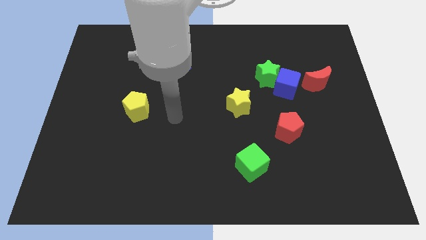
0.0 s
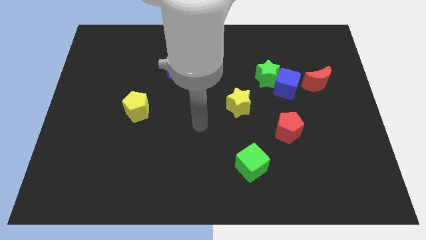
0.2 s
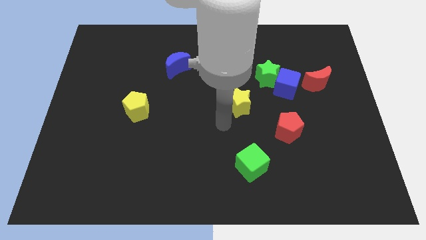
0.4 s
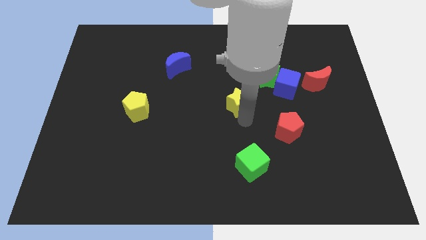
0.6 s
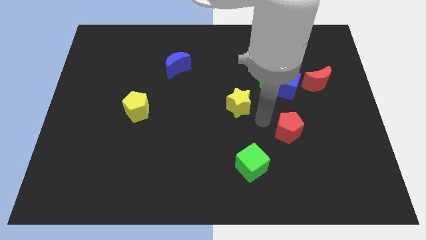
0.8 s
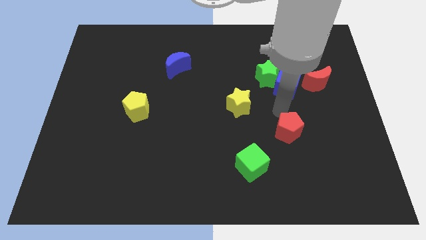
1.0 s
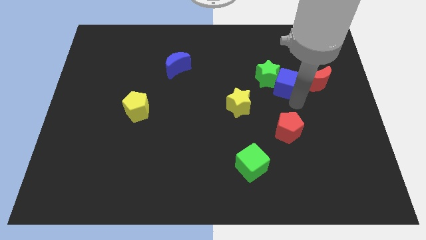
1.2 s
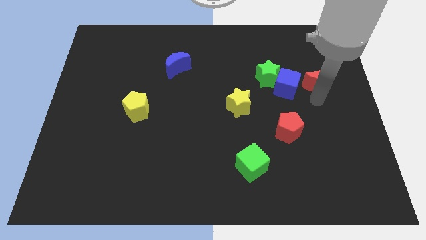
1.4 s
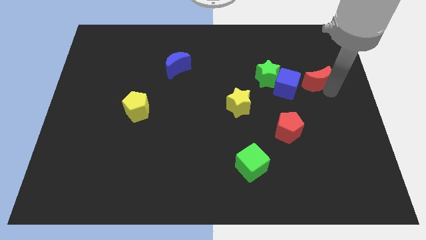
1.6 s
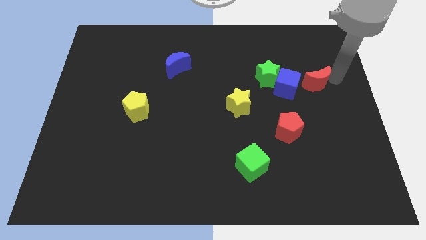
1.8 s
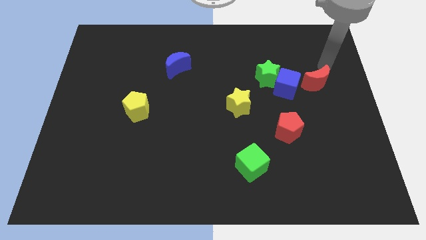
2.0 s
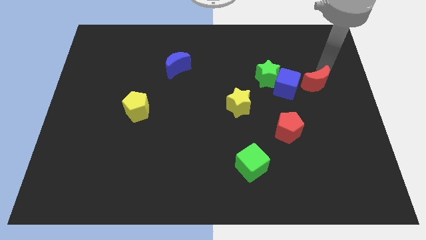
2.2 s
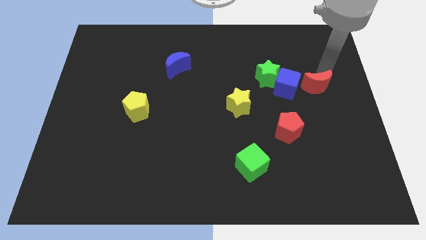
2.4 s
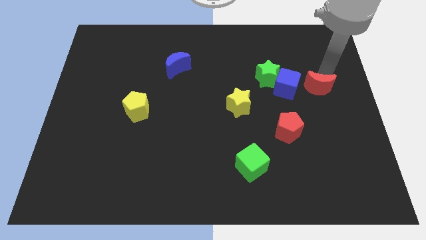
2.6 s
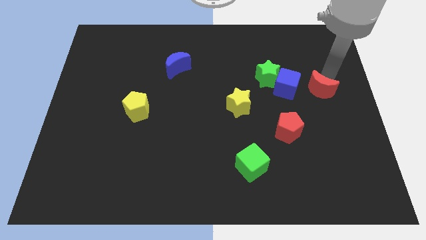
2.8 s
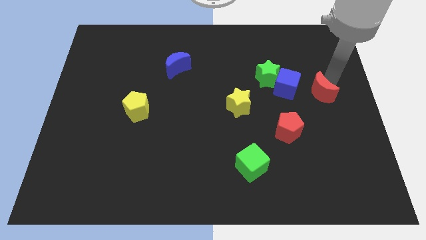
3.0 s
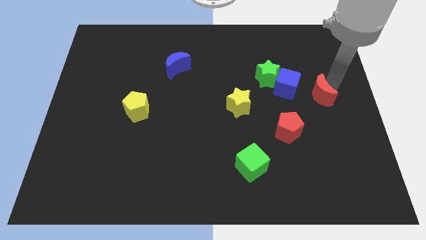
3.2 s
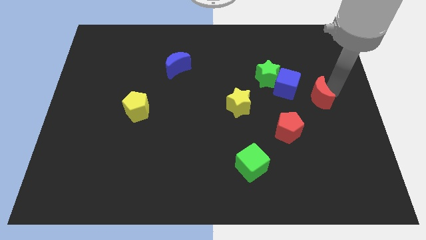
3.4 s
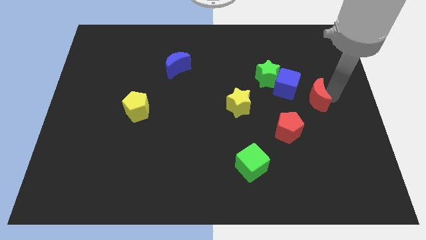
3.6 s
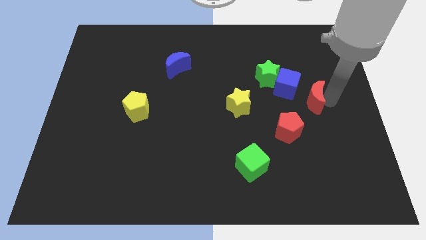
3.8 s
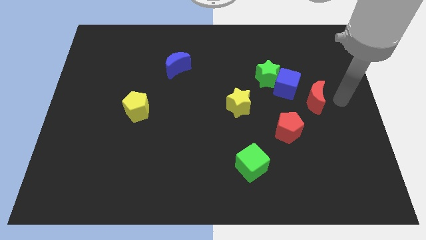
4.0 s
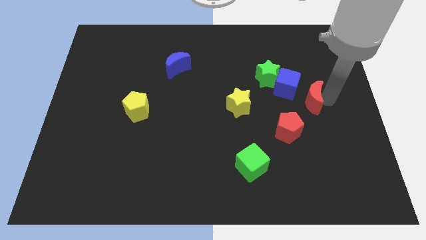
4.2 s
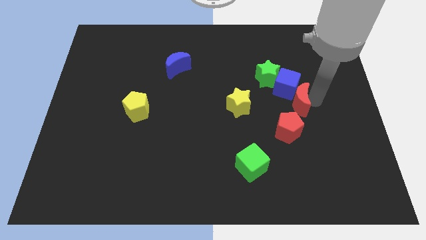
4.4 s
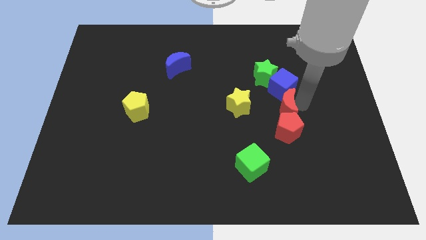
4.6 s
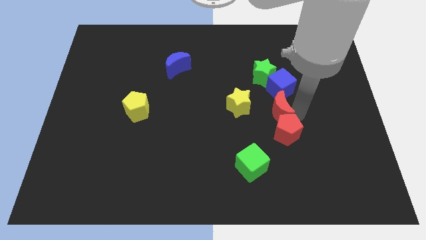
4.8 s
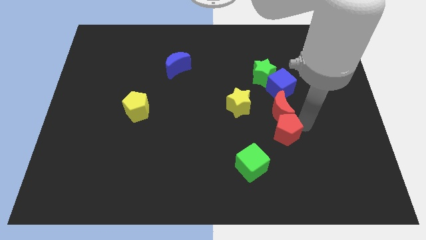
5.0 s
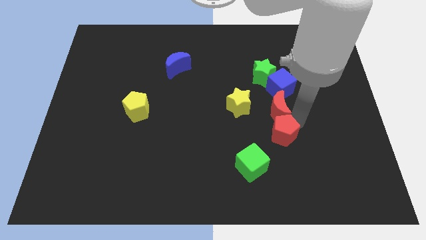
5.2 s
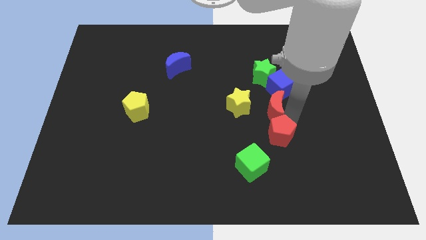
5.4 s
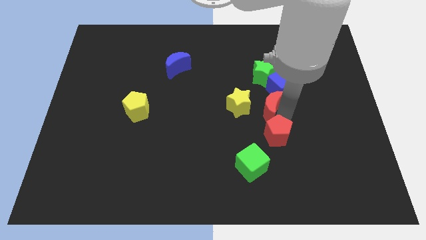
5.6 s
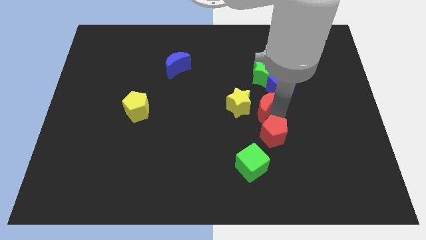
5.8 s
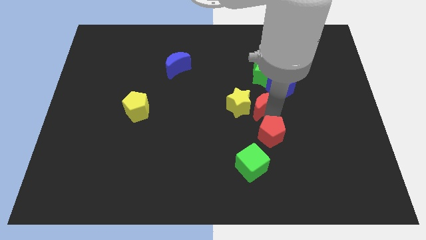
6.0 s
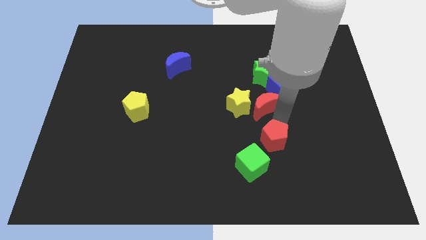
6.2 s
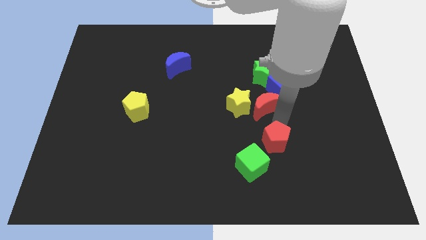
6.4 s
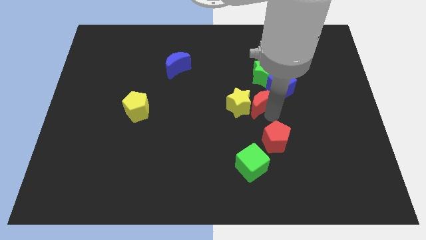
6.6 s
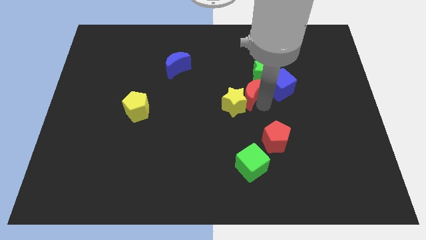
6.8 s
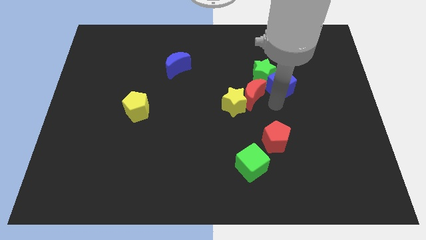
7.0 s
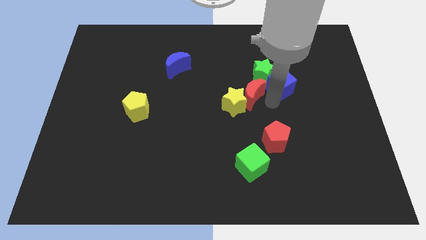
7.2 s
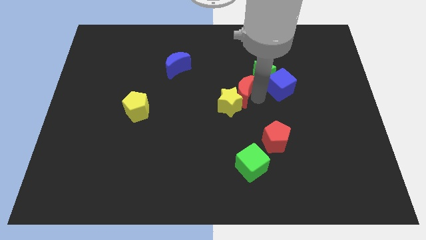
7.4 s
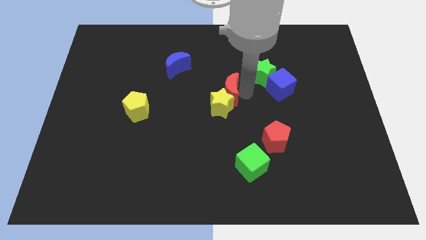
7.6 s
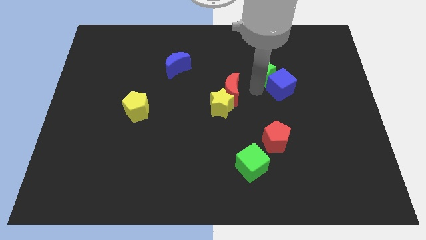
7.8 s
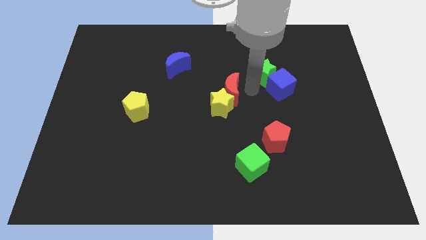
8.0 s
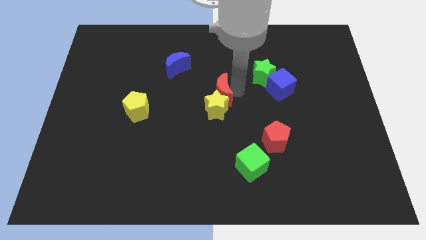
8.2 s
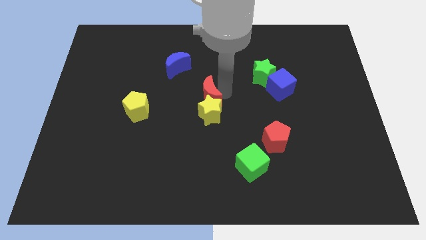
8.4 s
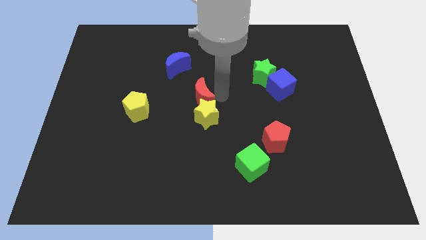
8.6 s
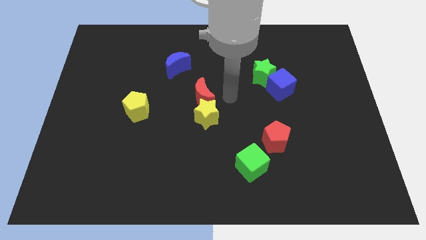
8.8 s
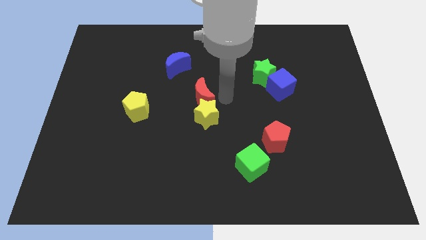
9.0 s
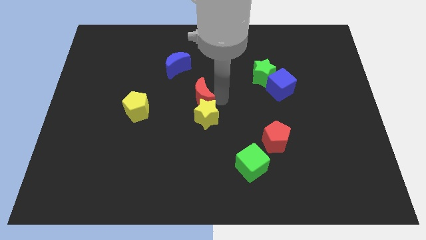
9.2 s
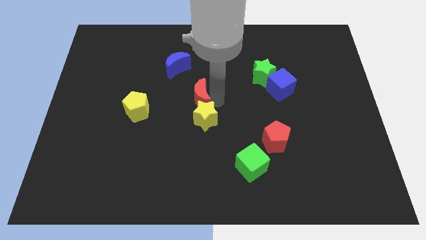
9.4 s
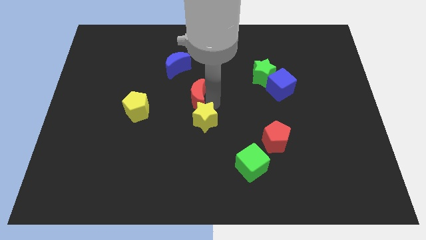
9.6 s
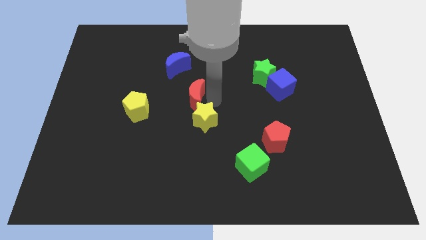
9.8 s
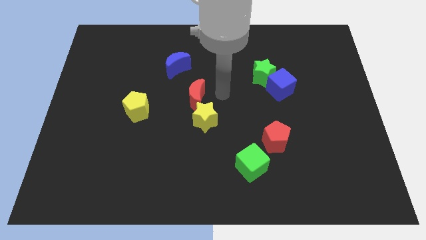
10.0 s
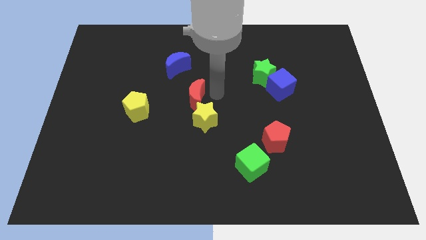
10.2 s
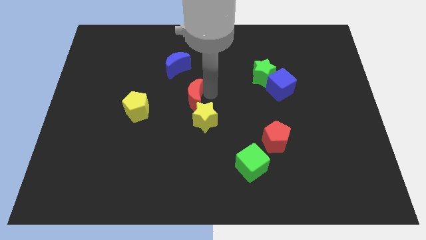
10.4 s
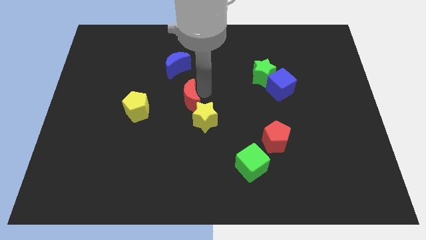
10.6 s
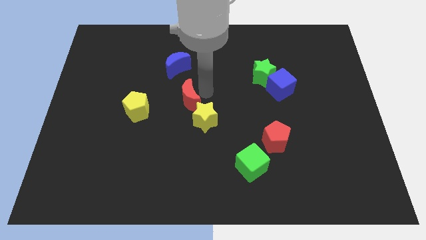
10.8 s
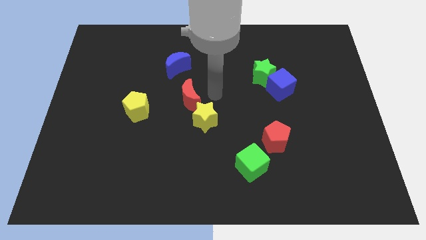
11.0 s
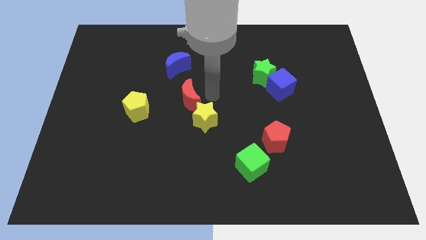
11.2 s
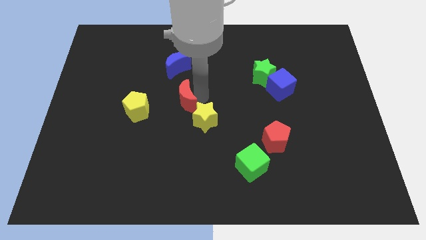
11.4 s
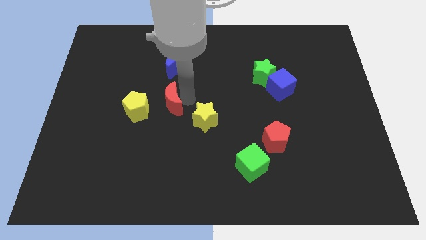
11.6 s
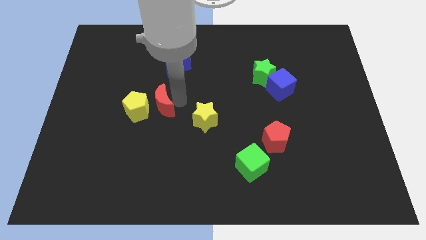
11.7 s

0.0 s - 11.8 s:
put the red moon towards the yellow pentagon

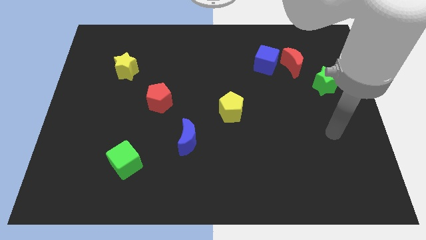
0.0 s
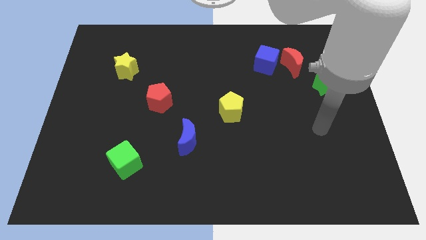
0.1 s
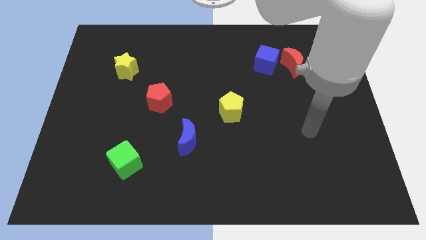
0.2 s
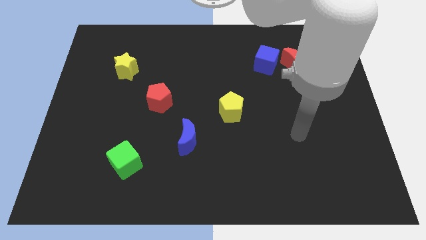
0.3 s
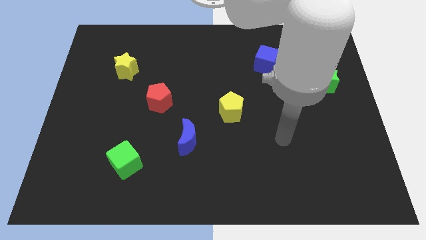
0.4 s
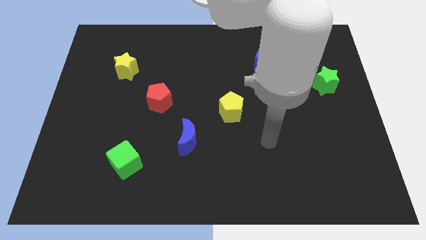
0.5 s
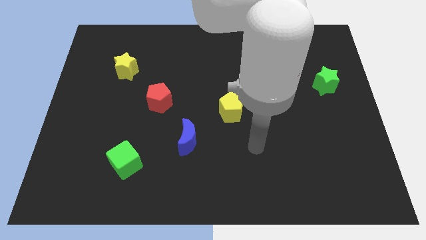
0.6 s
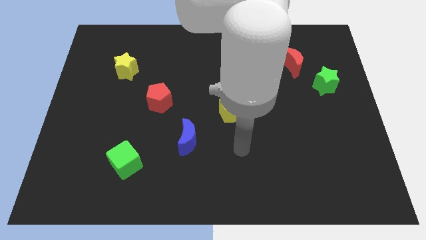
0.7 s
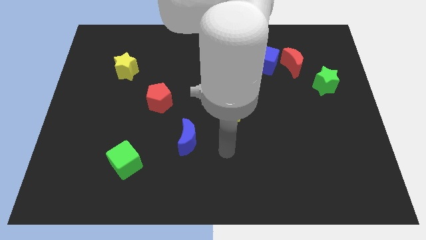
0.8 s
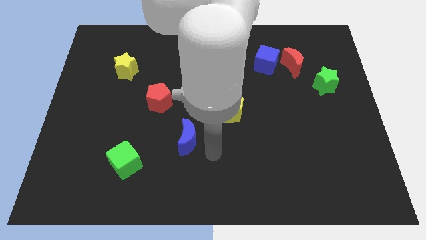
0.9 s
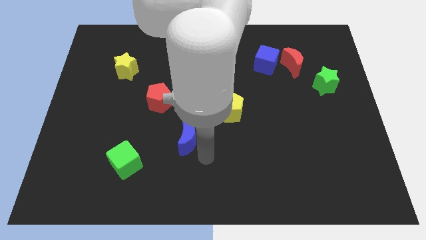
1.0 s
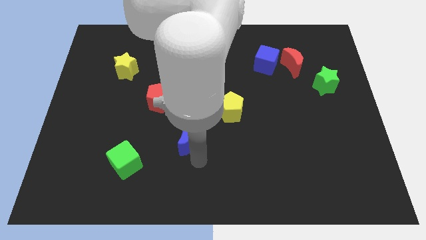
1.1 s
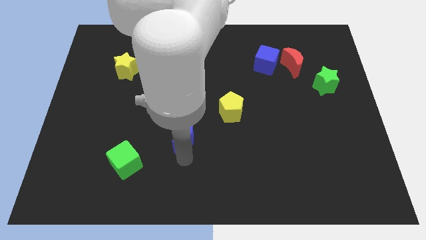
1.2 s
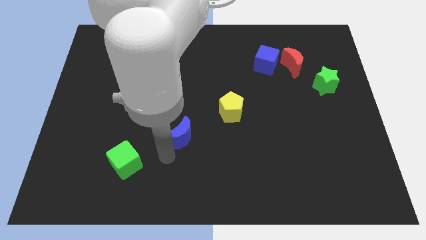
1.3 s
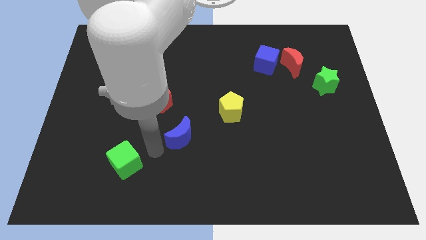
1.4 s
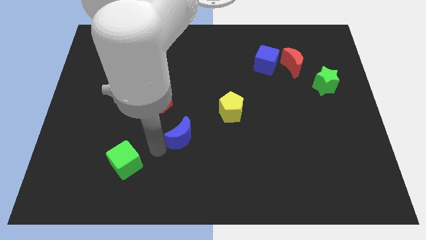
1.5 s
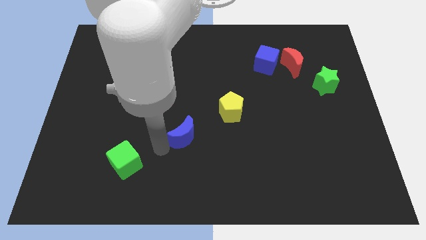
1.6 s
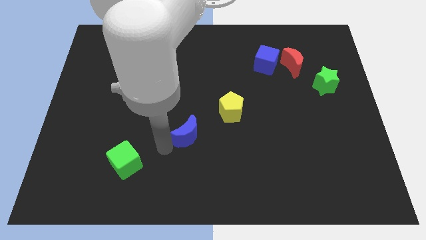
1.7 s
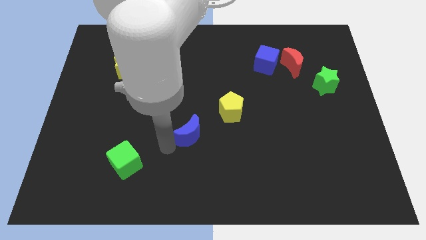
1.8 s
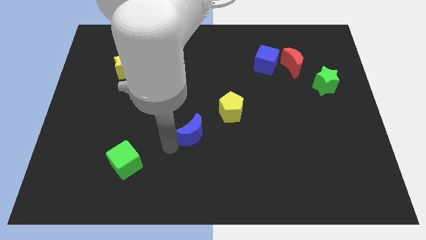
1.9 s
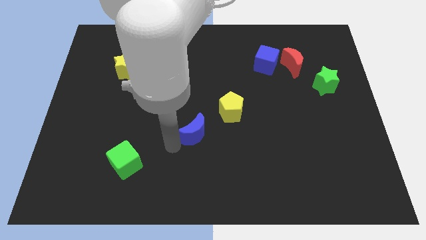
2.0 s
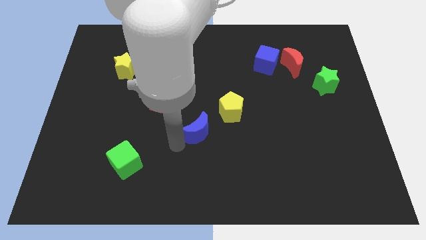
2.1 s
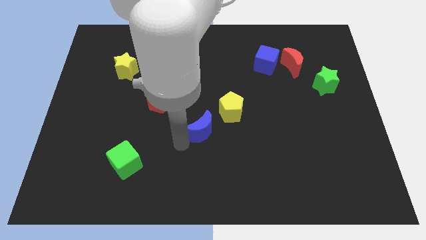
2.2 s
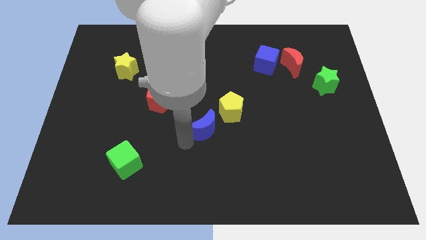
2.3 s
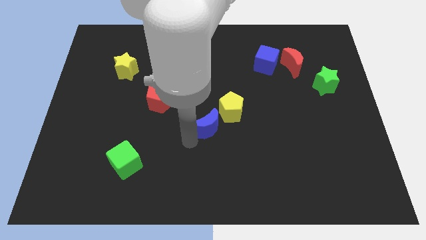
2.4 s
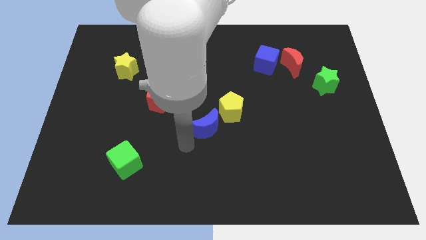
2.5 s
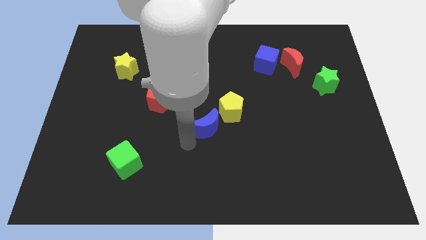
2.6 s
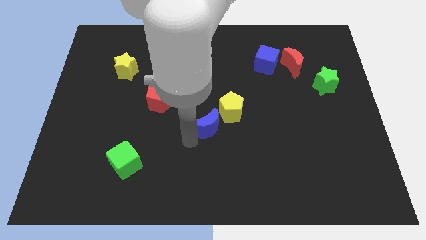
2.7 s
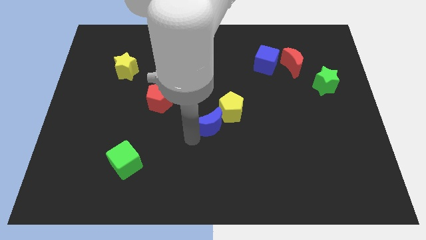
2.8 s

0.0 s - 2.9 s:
move the blue moon to the yellow pentagon
